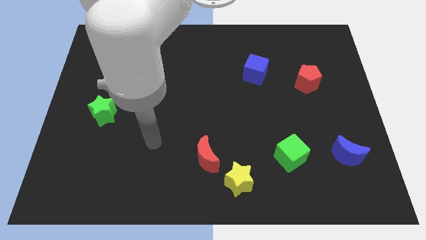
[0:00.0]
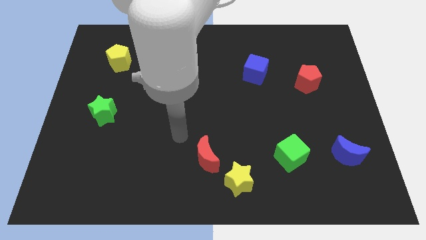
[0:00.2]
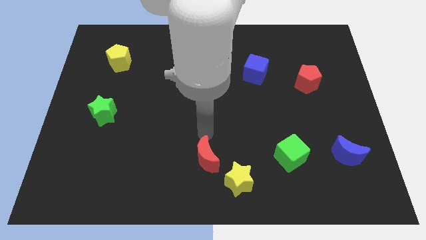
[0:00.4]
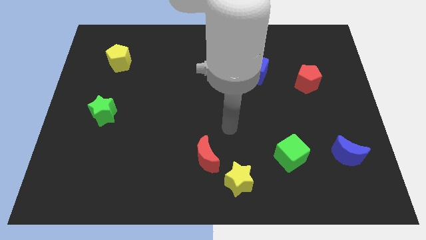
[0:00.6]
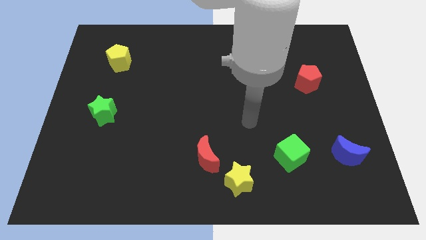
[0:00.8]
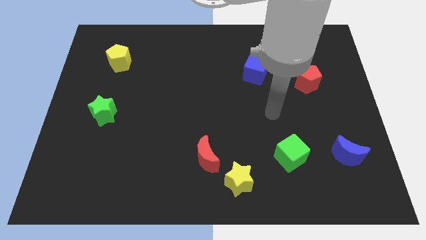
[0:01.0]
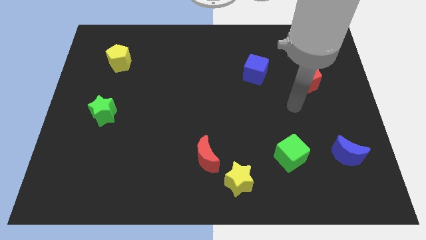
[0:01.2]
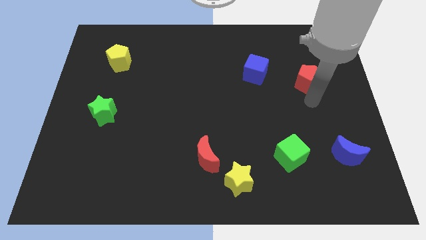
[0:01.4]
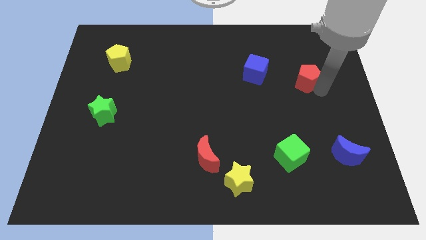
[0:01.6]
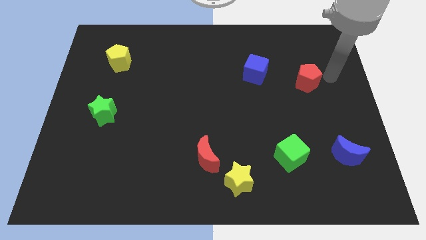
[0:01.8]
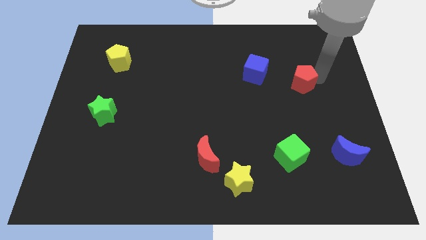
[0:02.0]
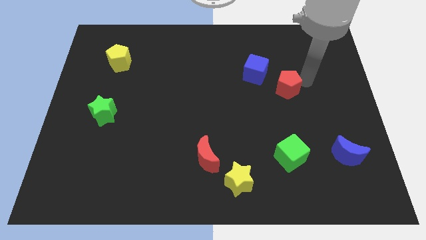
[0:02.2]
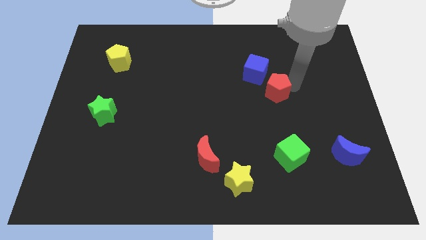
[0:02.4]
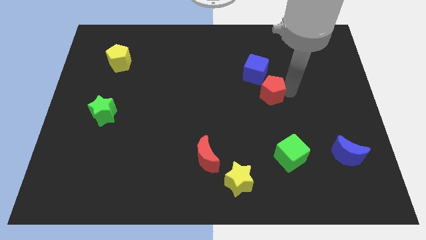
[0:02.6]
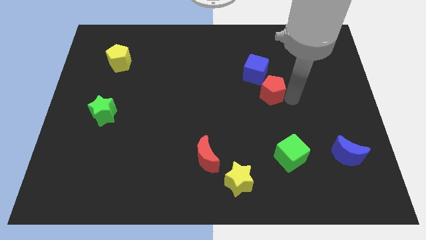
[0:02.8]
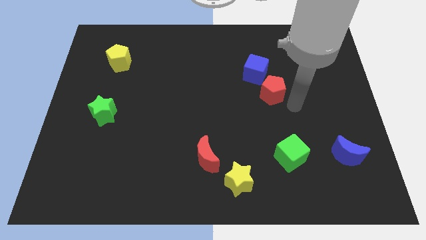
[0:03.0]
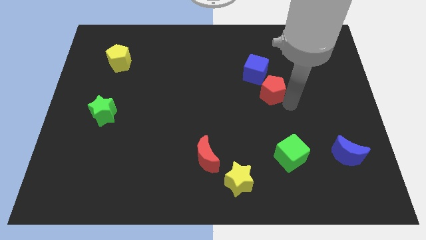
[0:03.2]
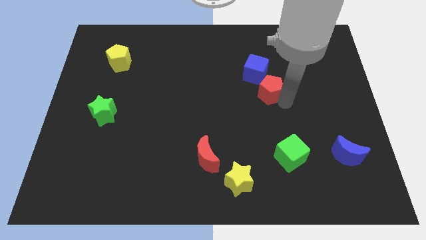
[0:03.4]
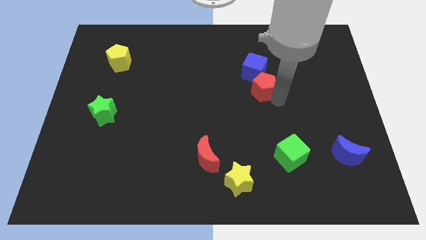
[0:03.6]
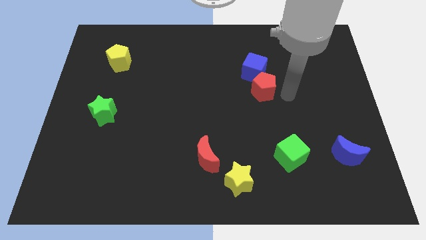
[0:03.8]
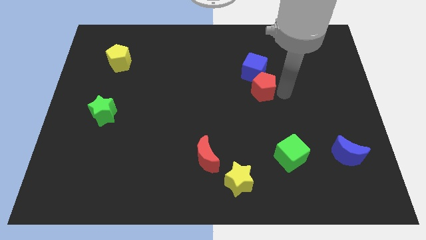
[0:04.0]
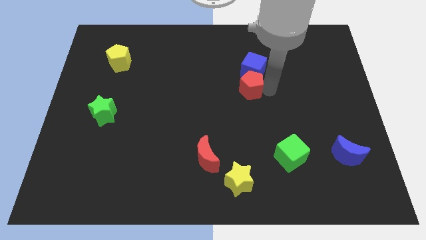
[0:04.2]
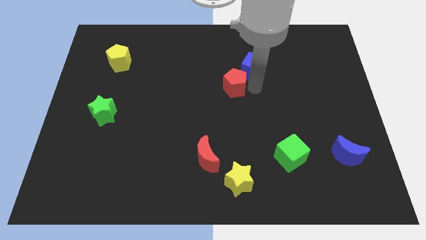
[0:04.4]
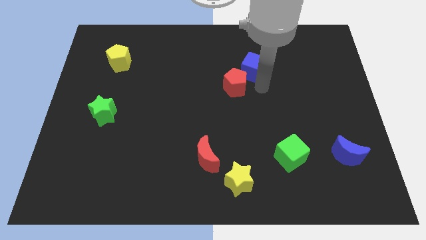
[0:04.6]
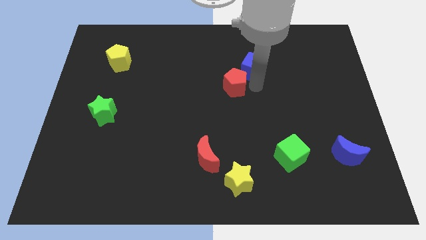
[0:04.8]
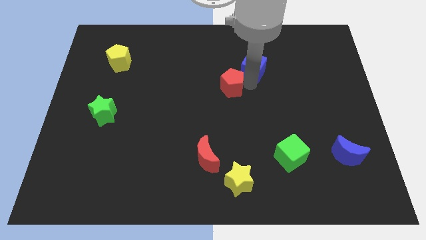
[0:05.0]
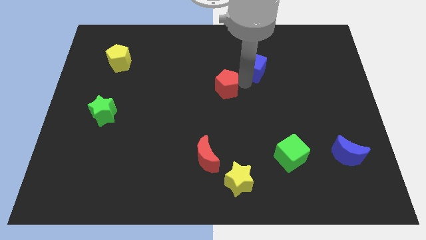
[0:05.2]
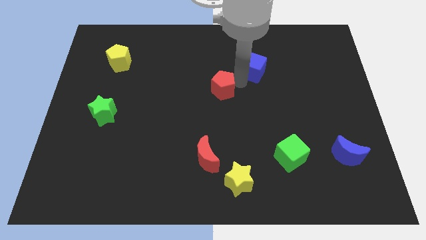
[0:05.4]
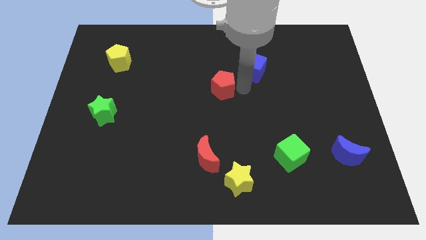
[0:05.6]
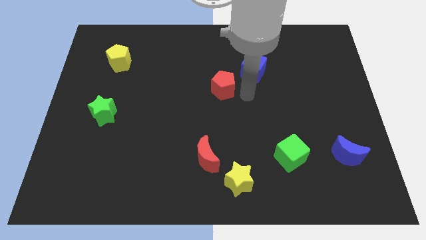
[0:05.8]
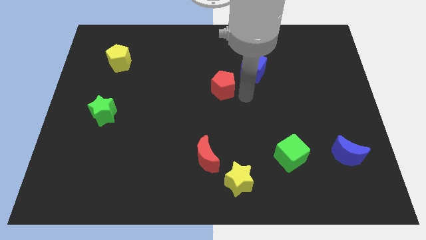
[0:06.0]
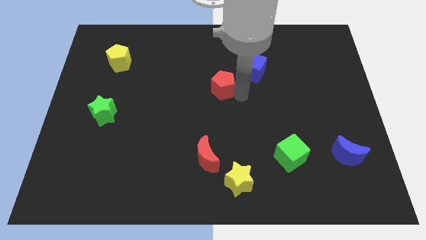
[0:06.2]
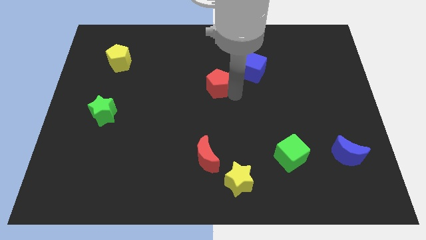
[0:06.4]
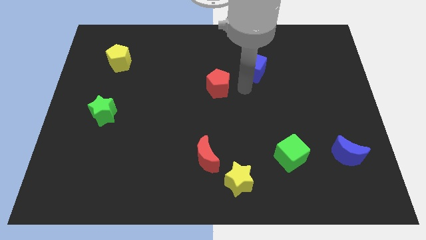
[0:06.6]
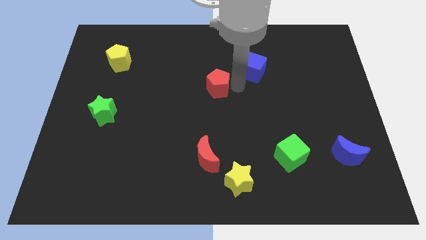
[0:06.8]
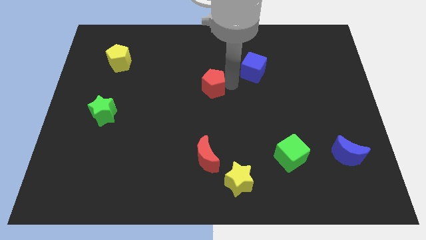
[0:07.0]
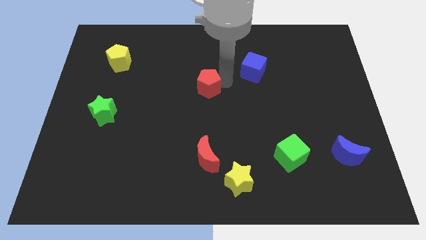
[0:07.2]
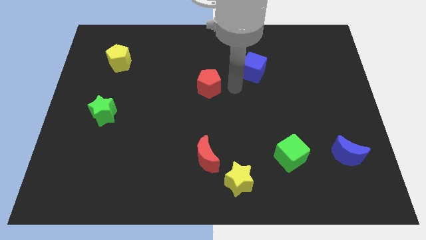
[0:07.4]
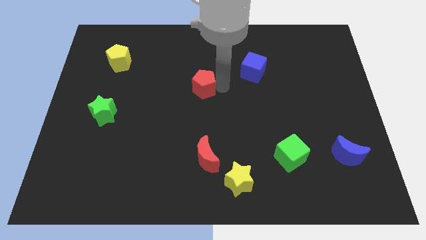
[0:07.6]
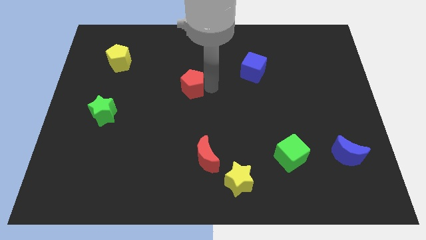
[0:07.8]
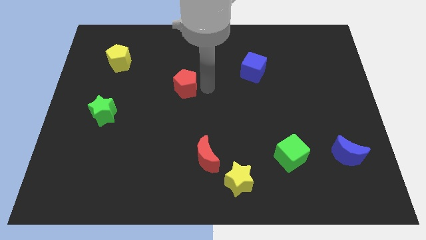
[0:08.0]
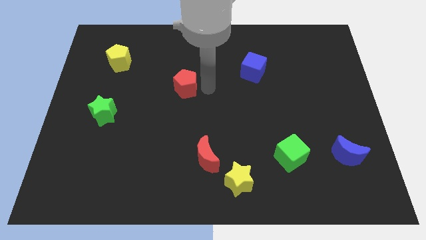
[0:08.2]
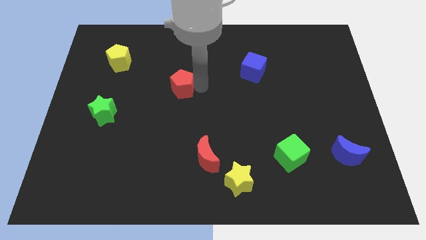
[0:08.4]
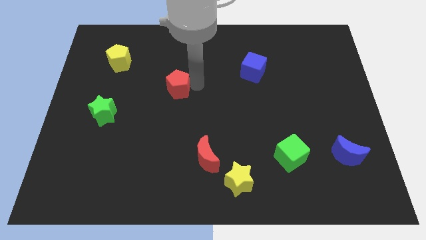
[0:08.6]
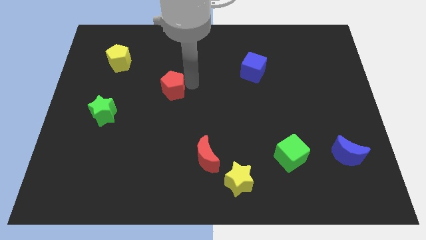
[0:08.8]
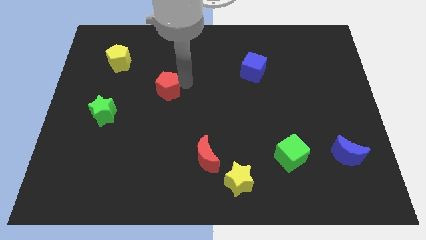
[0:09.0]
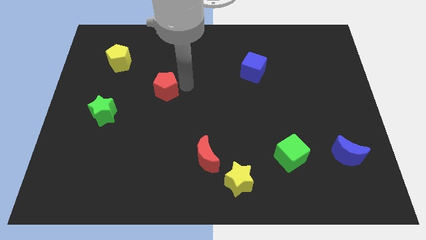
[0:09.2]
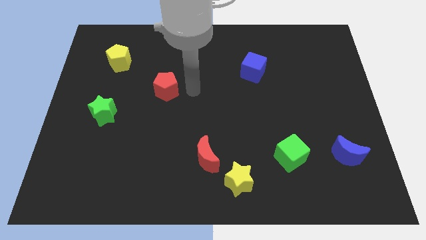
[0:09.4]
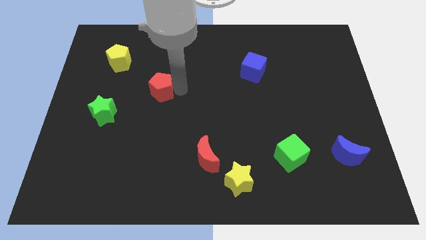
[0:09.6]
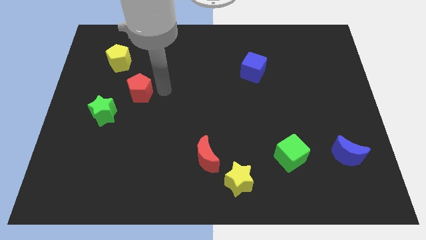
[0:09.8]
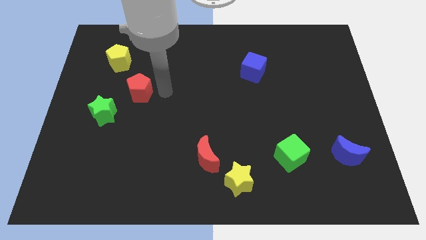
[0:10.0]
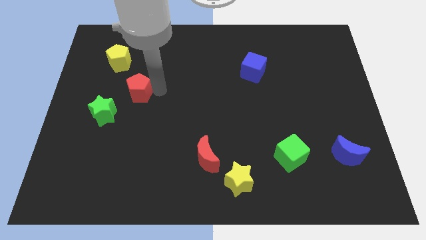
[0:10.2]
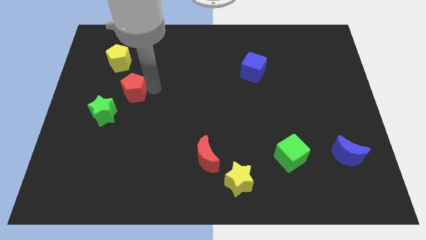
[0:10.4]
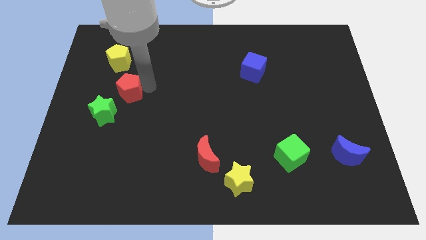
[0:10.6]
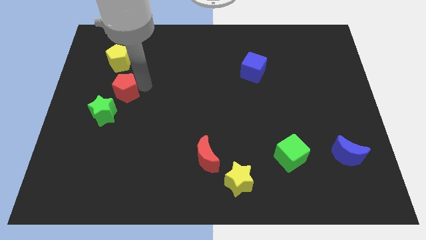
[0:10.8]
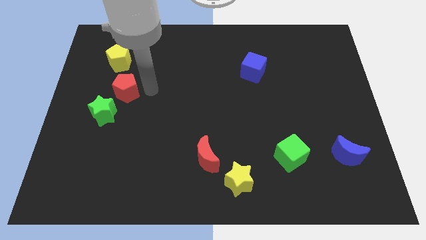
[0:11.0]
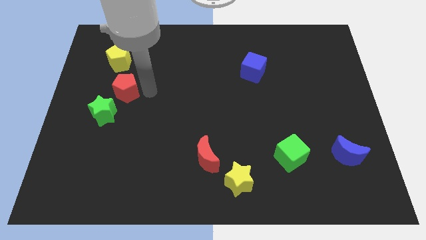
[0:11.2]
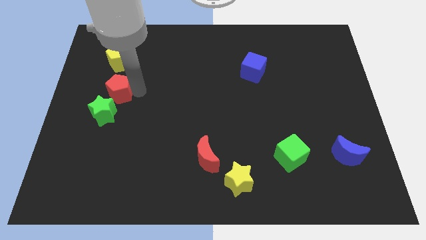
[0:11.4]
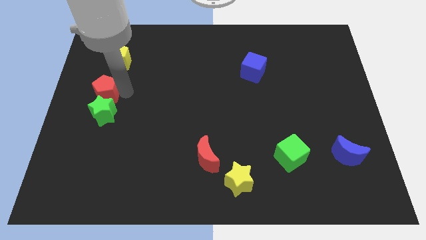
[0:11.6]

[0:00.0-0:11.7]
slide the red pentagon to the left side

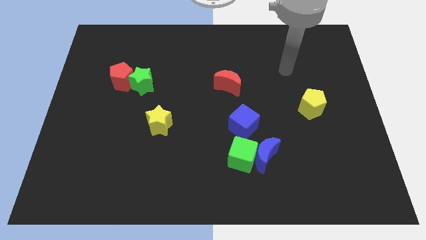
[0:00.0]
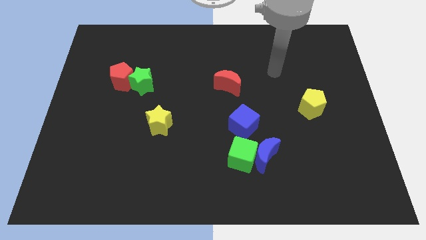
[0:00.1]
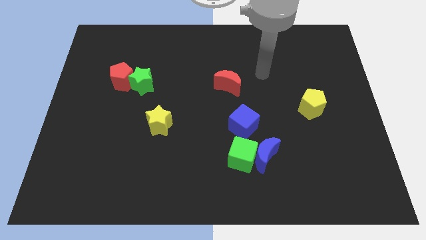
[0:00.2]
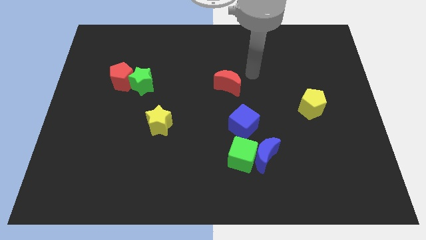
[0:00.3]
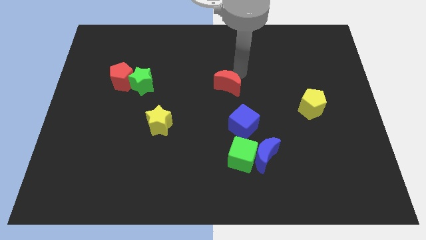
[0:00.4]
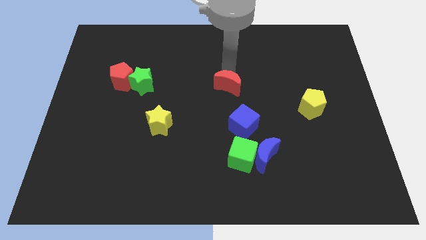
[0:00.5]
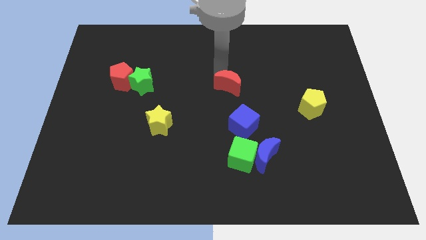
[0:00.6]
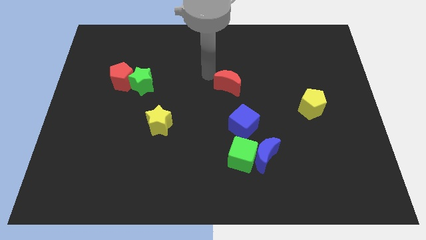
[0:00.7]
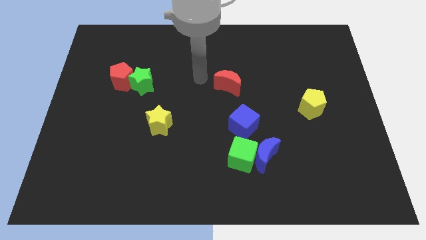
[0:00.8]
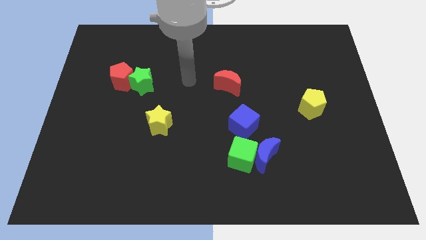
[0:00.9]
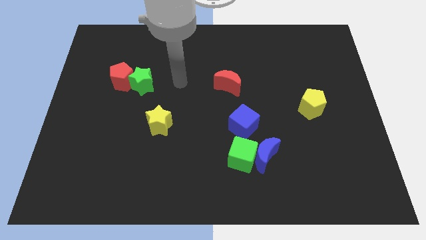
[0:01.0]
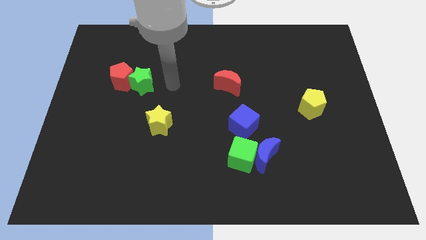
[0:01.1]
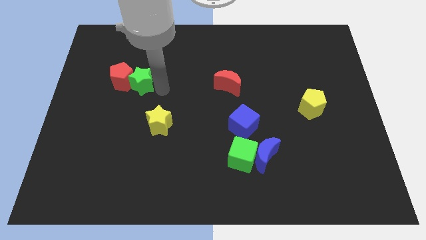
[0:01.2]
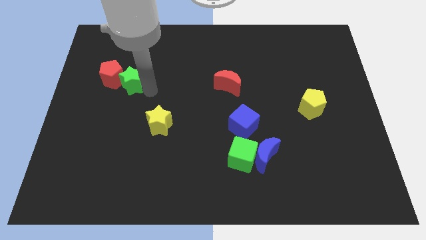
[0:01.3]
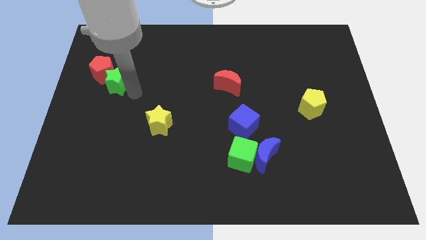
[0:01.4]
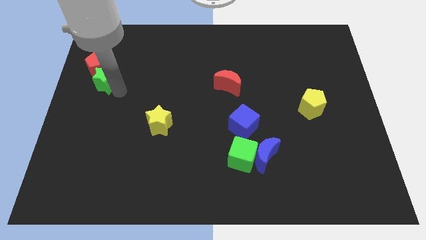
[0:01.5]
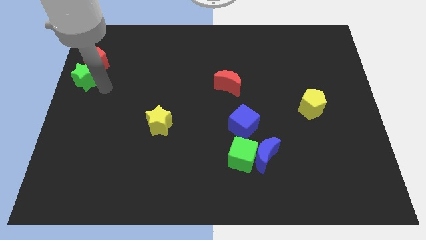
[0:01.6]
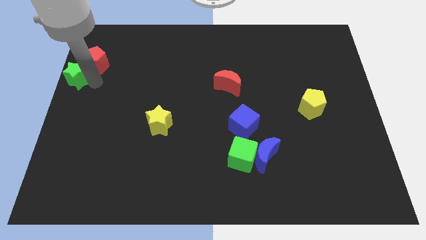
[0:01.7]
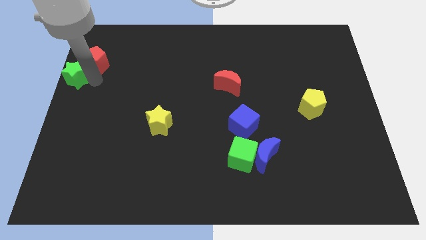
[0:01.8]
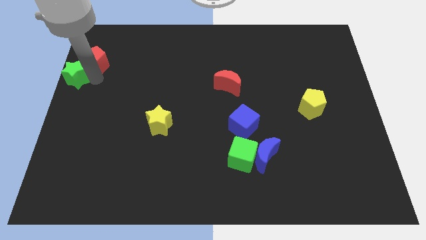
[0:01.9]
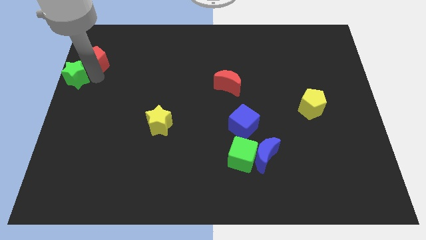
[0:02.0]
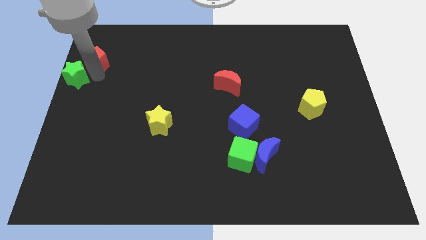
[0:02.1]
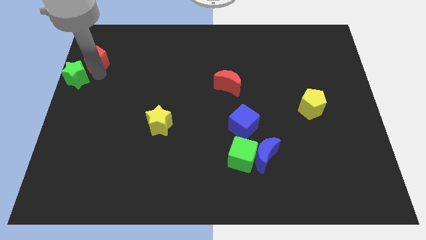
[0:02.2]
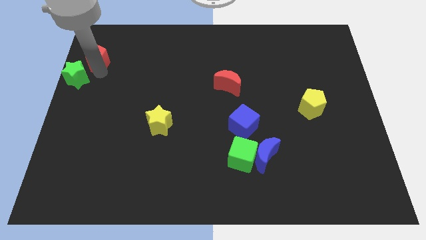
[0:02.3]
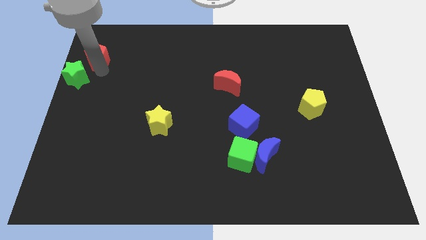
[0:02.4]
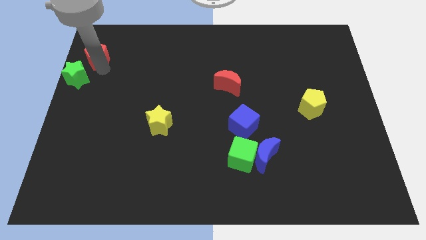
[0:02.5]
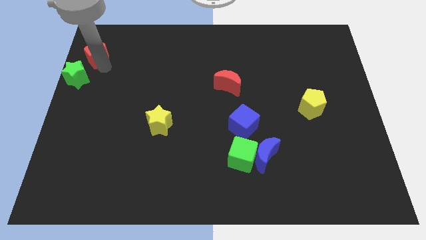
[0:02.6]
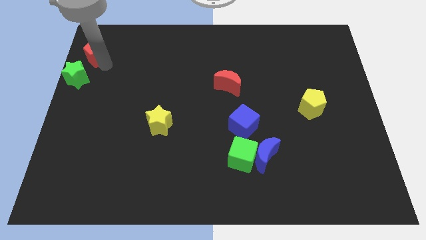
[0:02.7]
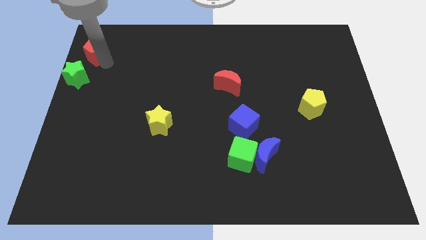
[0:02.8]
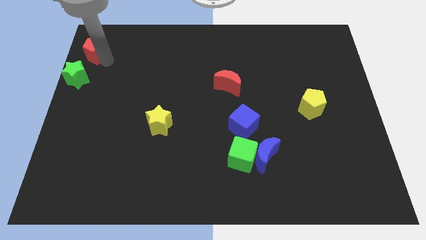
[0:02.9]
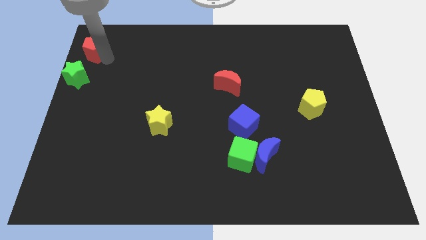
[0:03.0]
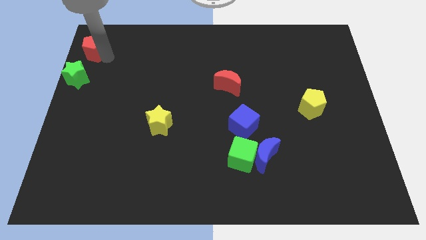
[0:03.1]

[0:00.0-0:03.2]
put the red pentagon to the top left of the board

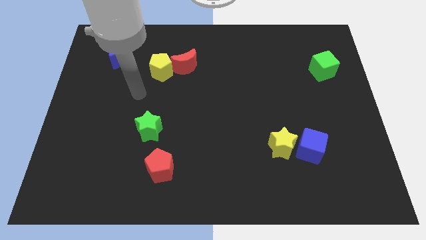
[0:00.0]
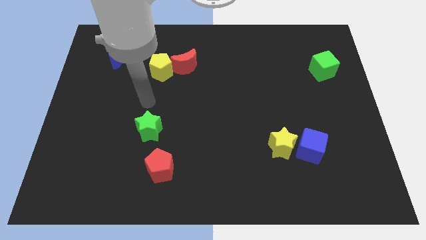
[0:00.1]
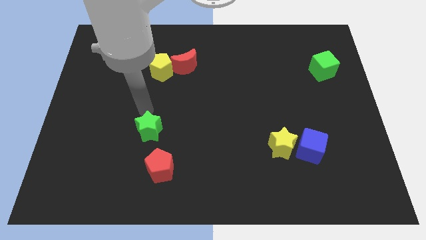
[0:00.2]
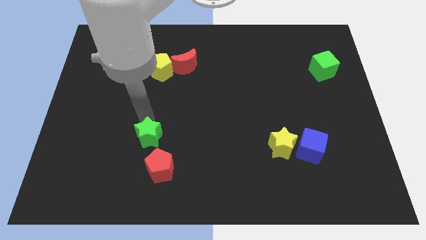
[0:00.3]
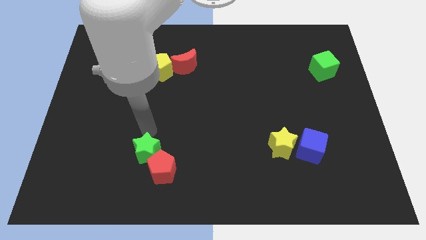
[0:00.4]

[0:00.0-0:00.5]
slide the red pentagon to the bottom
